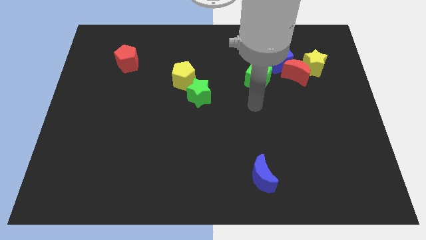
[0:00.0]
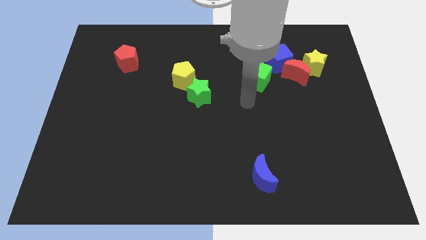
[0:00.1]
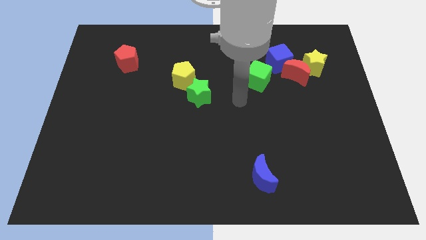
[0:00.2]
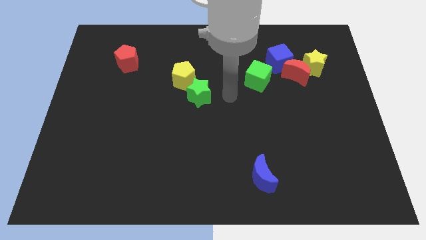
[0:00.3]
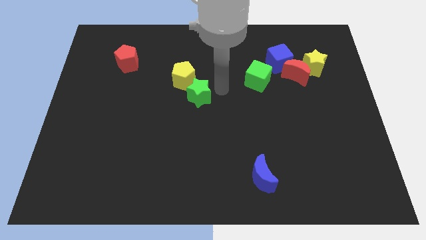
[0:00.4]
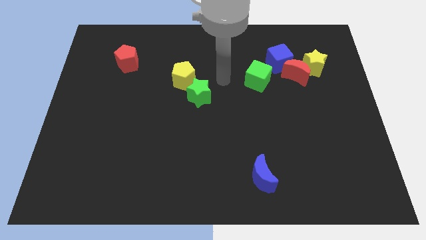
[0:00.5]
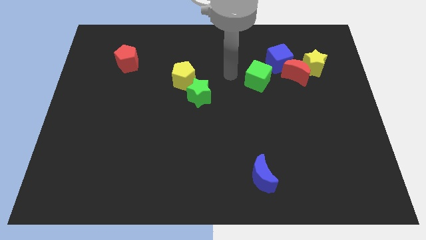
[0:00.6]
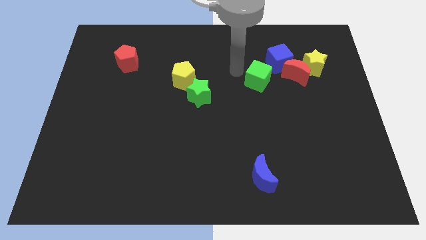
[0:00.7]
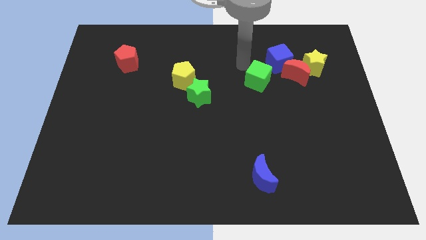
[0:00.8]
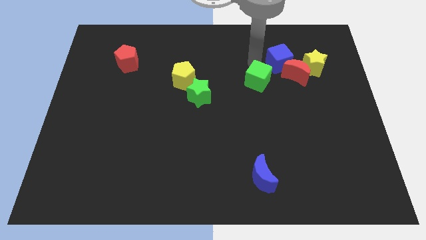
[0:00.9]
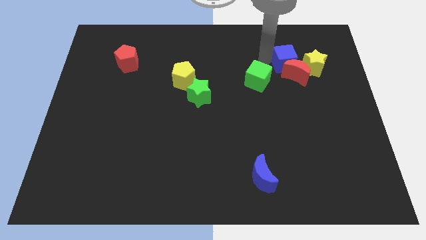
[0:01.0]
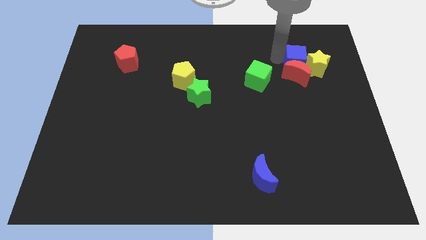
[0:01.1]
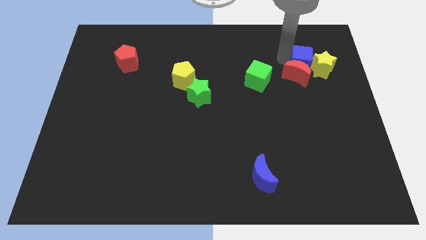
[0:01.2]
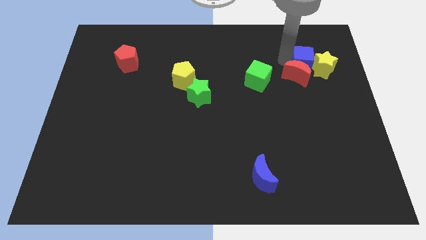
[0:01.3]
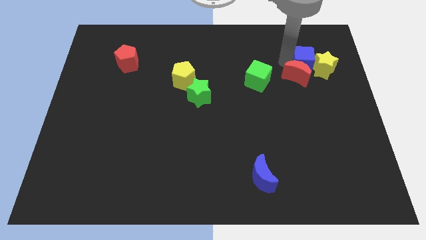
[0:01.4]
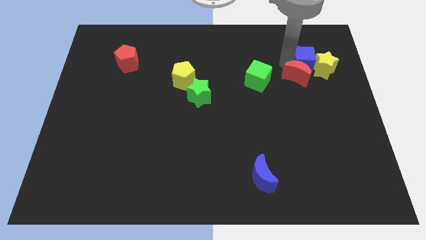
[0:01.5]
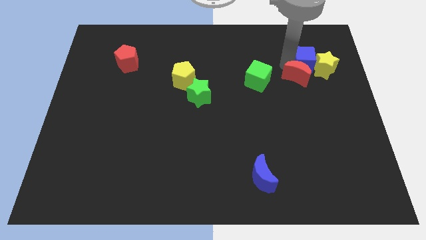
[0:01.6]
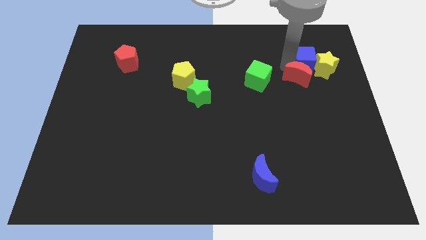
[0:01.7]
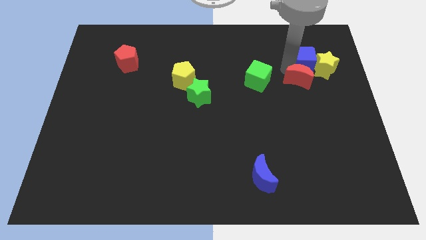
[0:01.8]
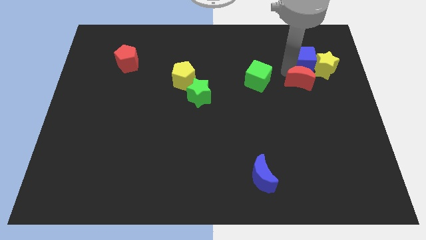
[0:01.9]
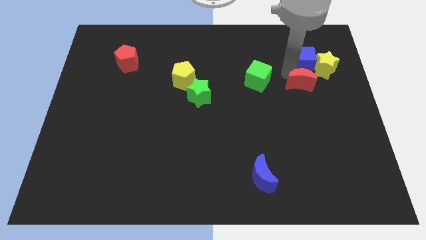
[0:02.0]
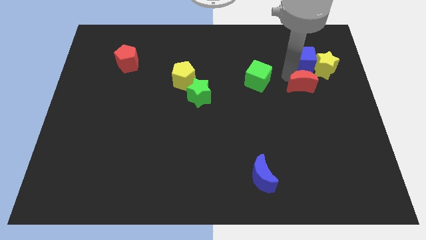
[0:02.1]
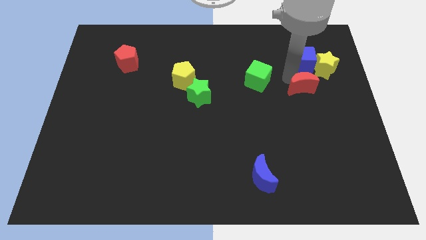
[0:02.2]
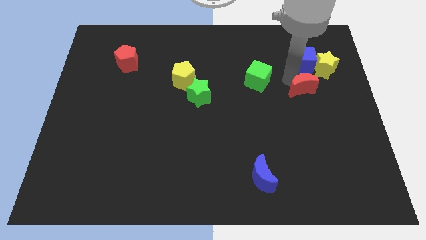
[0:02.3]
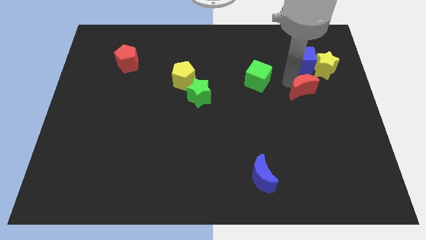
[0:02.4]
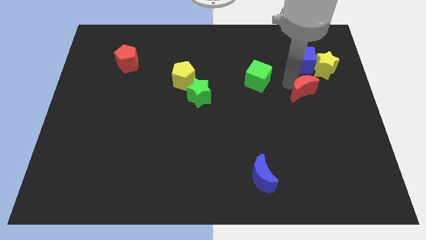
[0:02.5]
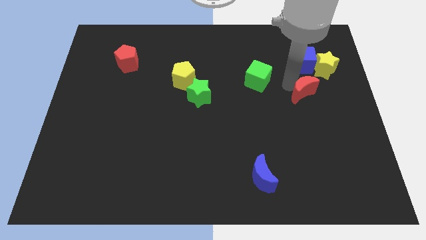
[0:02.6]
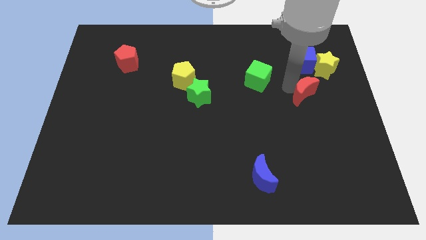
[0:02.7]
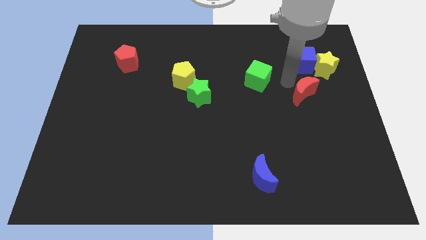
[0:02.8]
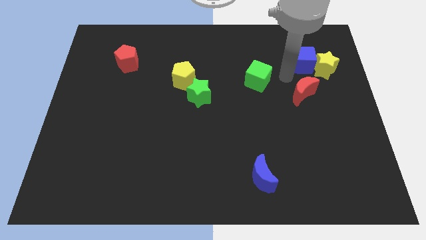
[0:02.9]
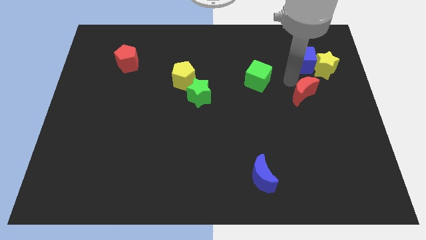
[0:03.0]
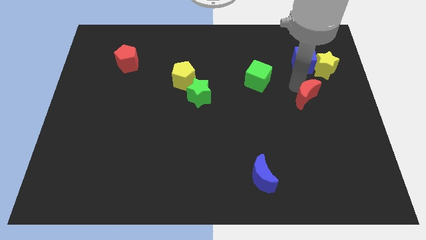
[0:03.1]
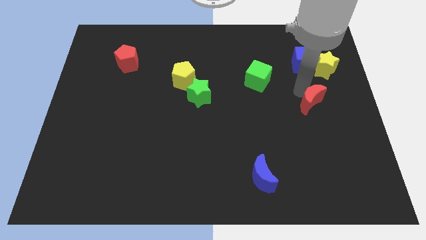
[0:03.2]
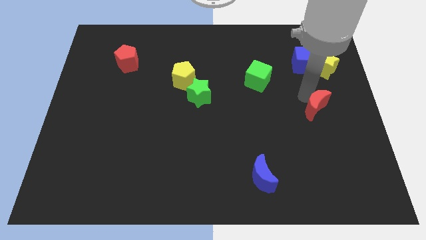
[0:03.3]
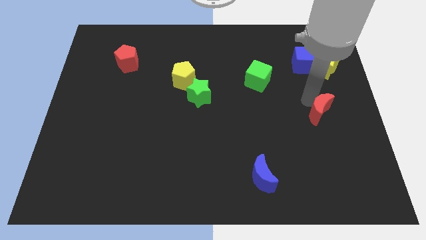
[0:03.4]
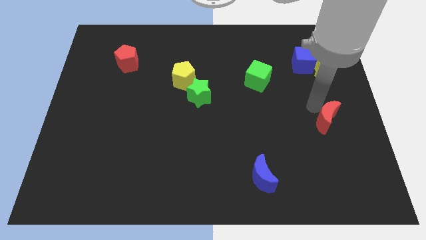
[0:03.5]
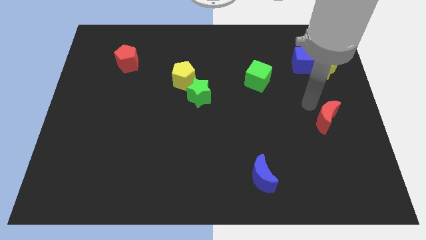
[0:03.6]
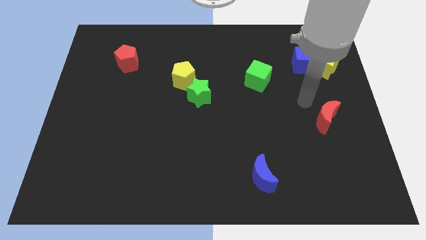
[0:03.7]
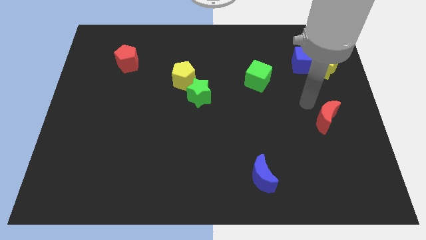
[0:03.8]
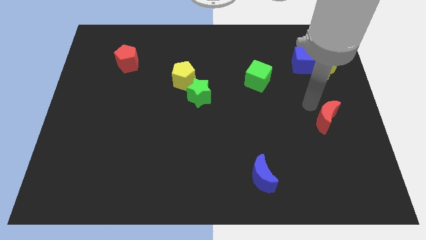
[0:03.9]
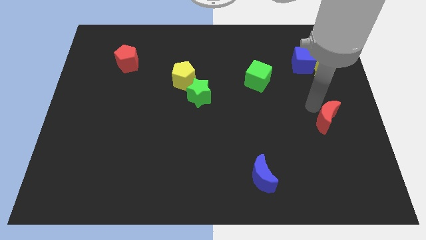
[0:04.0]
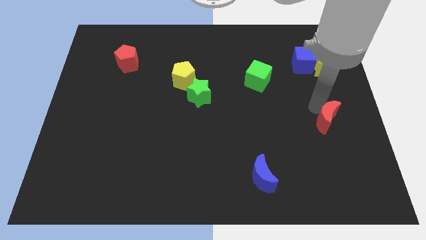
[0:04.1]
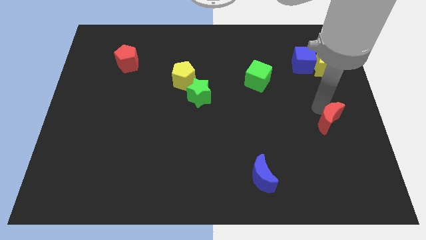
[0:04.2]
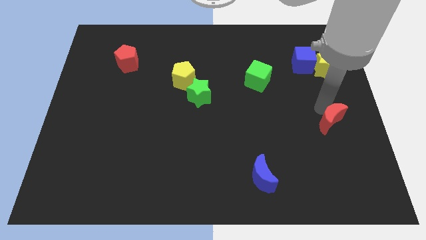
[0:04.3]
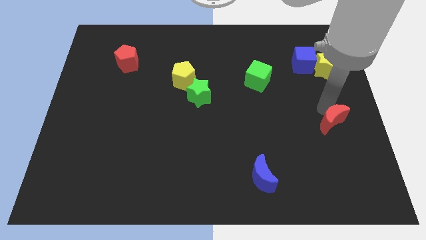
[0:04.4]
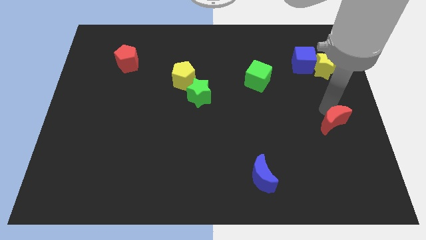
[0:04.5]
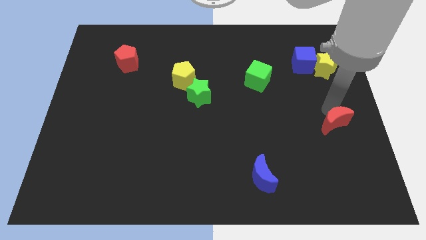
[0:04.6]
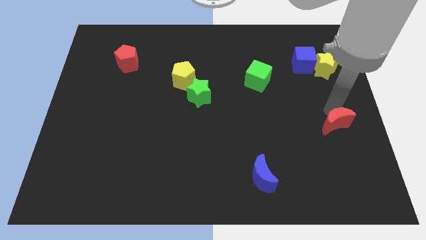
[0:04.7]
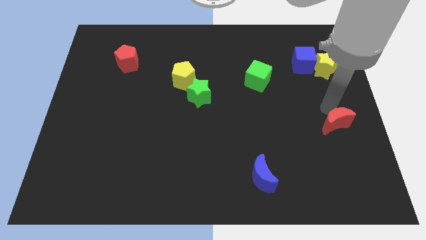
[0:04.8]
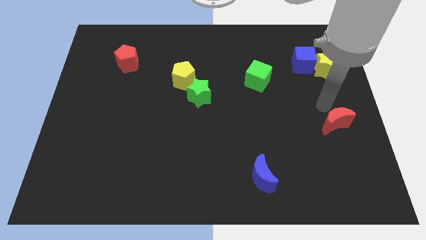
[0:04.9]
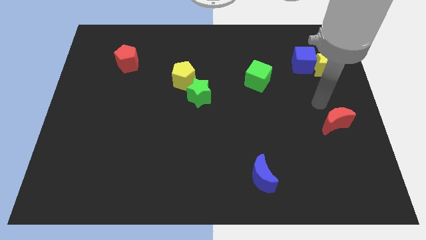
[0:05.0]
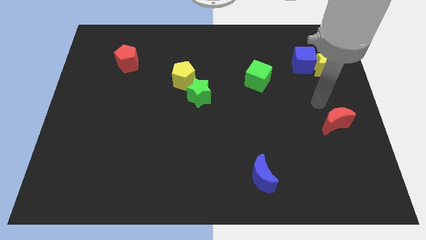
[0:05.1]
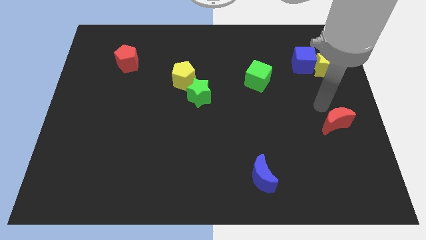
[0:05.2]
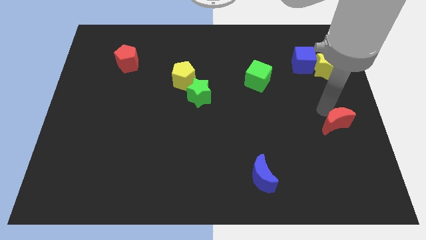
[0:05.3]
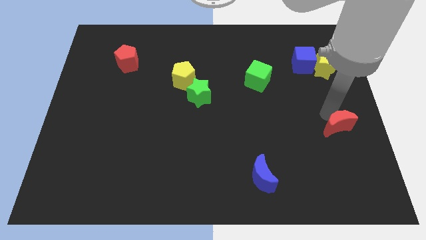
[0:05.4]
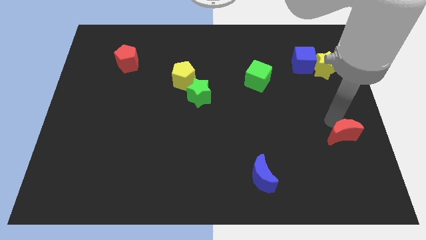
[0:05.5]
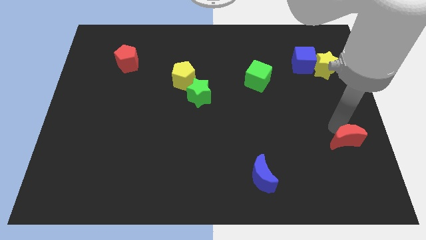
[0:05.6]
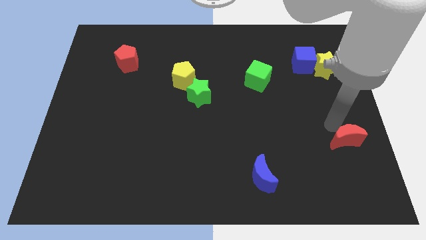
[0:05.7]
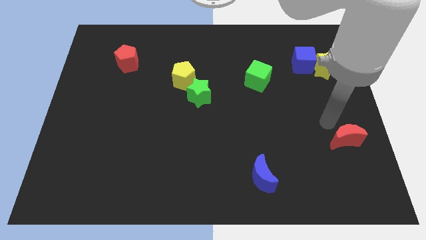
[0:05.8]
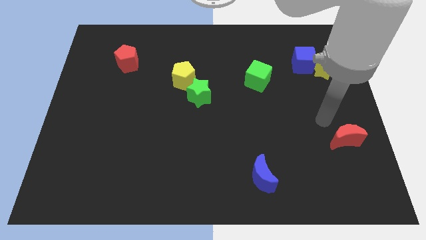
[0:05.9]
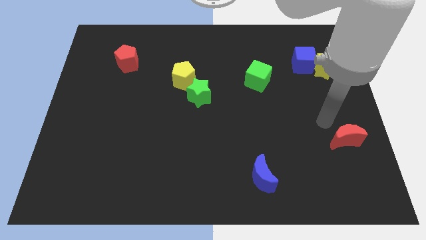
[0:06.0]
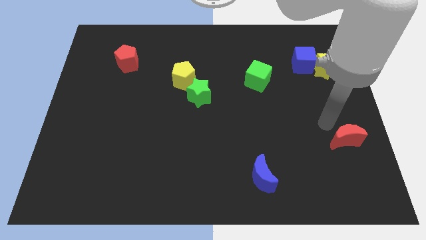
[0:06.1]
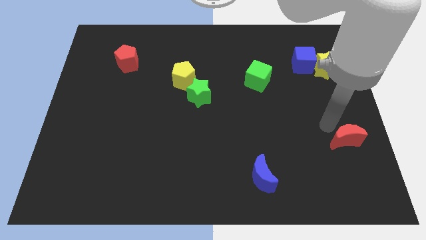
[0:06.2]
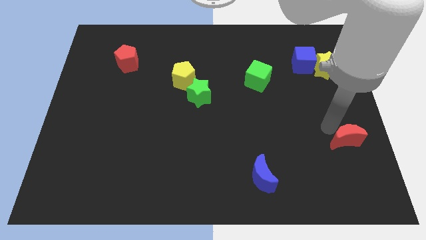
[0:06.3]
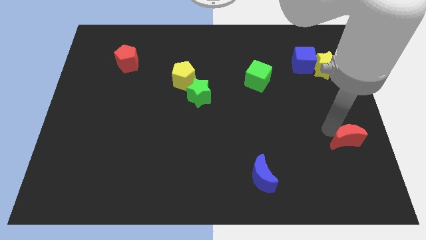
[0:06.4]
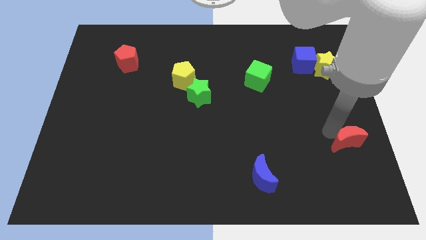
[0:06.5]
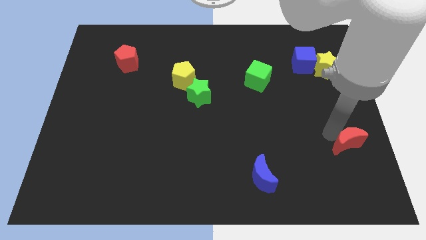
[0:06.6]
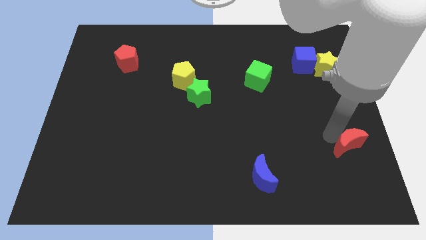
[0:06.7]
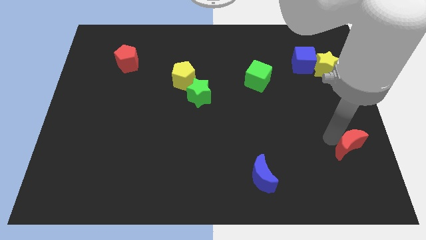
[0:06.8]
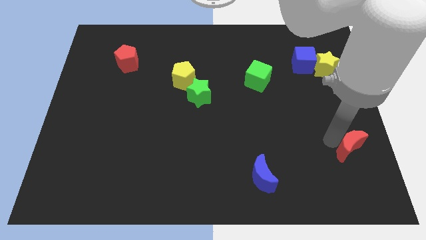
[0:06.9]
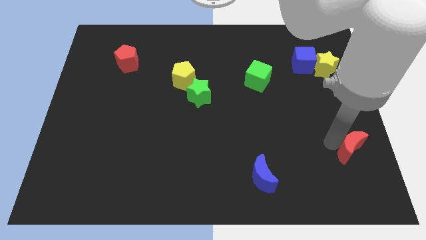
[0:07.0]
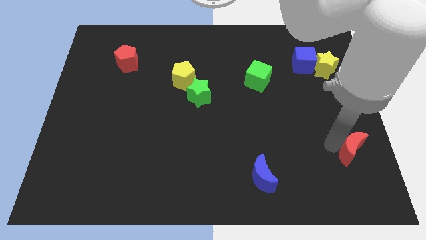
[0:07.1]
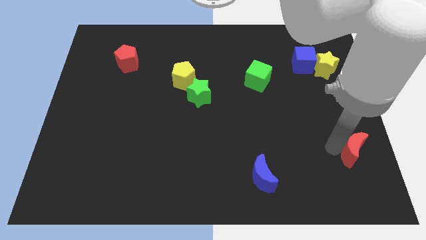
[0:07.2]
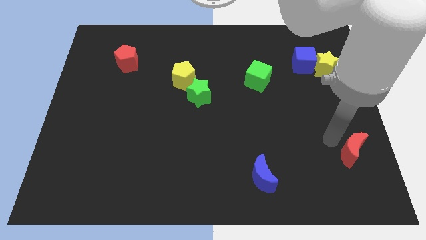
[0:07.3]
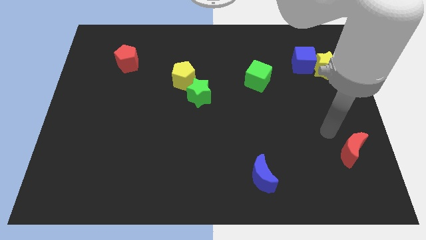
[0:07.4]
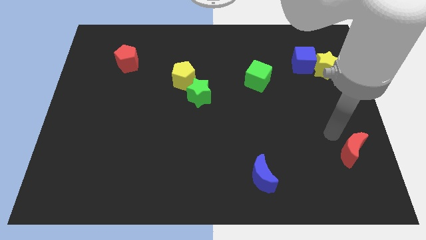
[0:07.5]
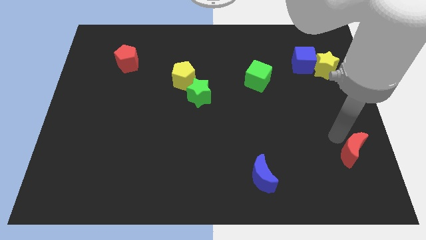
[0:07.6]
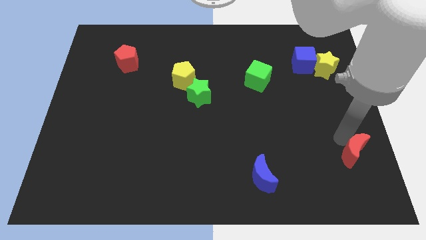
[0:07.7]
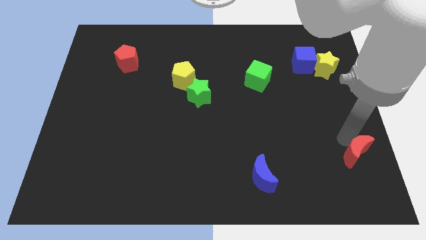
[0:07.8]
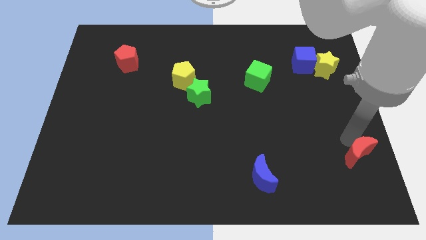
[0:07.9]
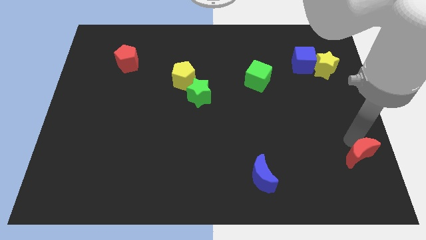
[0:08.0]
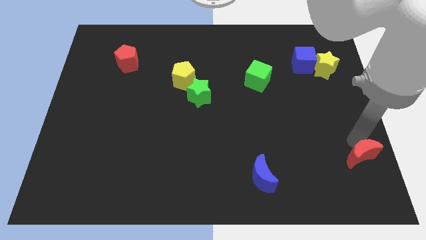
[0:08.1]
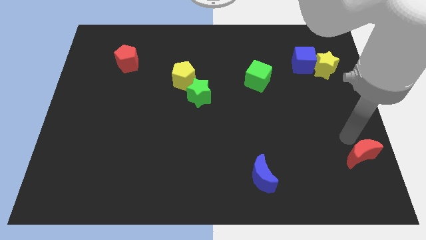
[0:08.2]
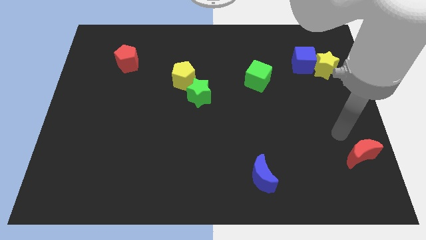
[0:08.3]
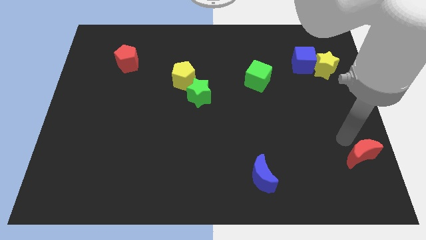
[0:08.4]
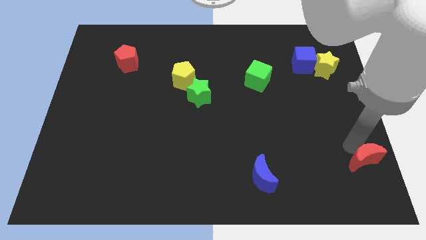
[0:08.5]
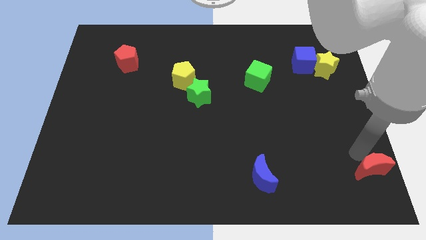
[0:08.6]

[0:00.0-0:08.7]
push the red moon to the lower right corner
